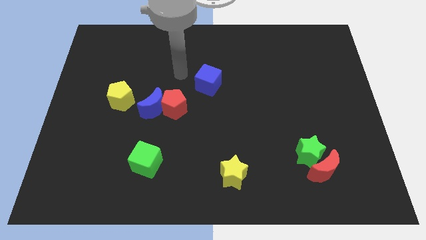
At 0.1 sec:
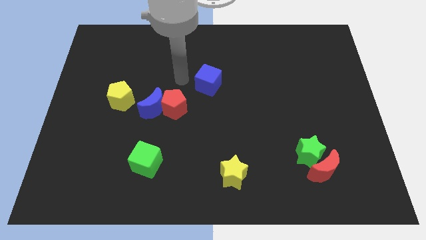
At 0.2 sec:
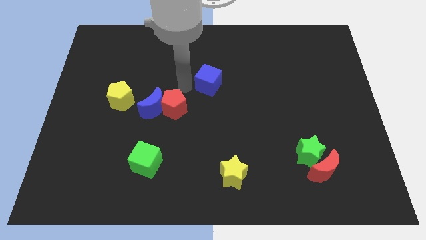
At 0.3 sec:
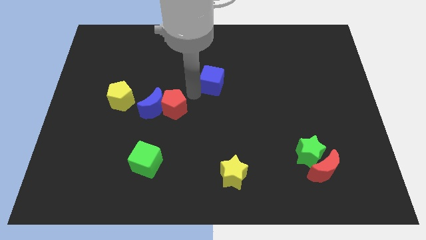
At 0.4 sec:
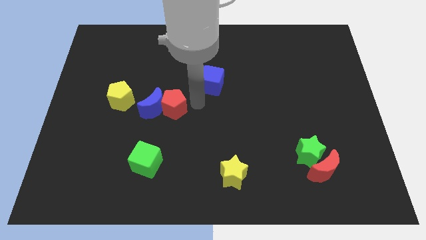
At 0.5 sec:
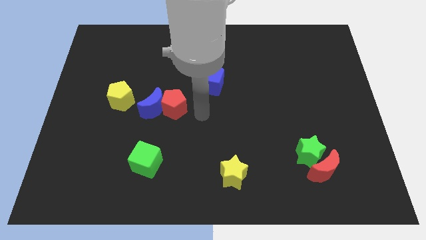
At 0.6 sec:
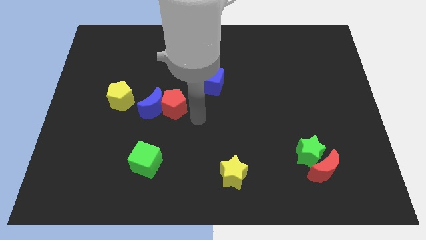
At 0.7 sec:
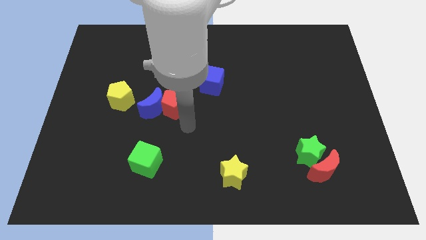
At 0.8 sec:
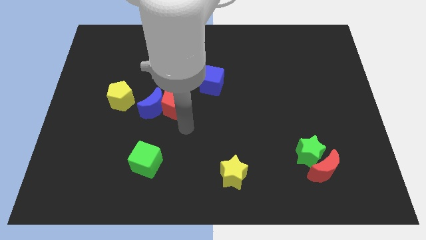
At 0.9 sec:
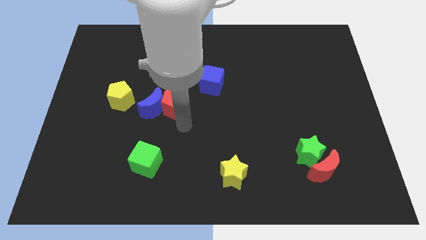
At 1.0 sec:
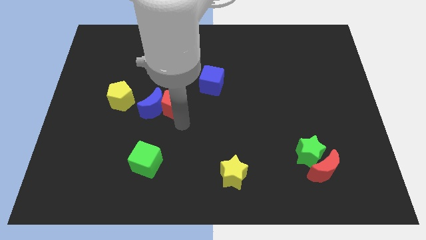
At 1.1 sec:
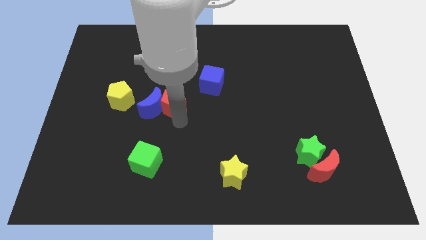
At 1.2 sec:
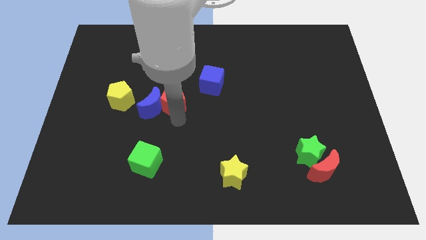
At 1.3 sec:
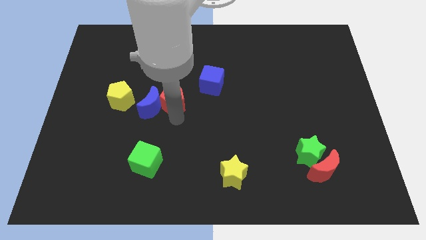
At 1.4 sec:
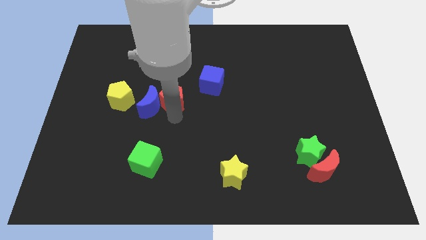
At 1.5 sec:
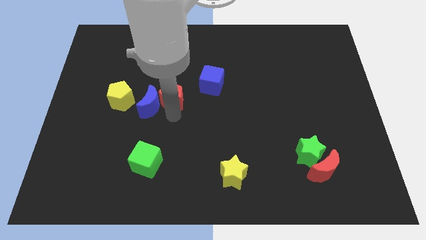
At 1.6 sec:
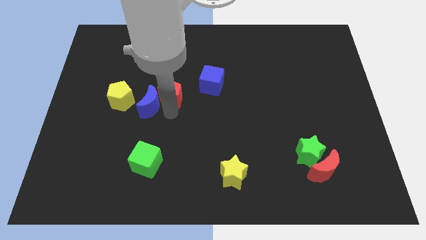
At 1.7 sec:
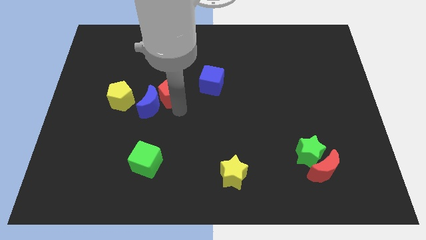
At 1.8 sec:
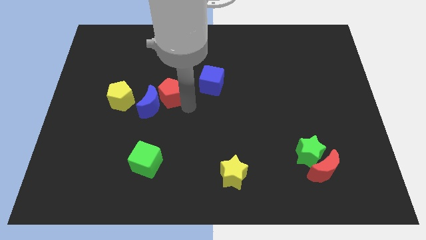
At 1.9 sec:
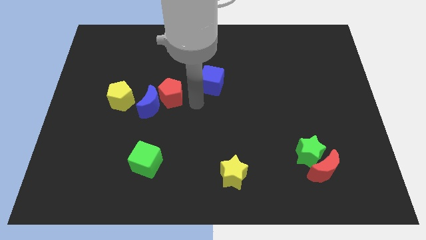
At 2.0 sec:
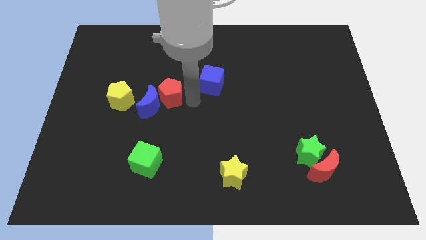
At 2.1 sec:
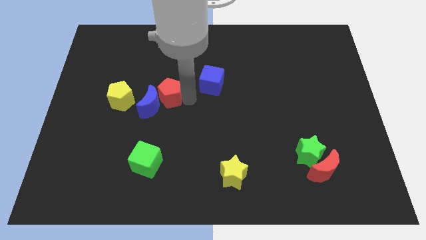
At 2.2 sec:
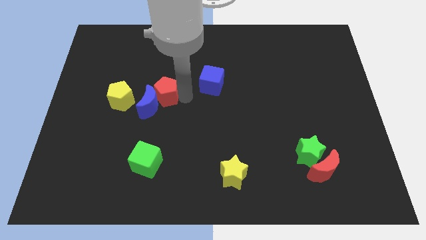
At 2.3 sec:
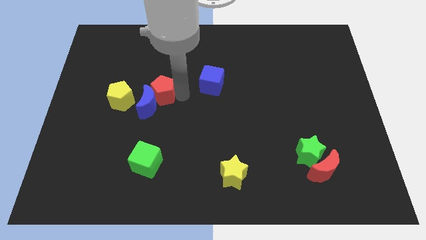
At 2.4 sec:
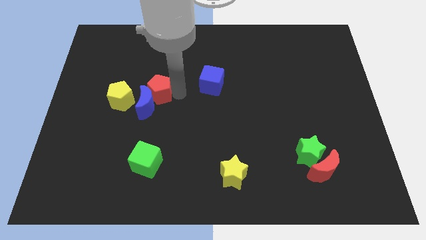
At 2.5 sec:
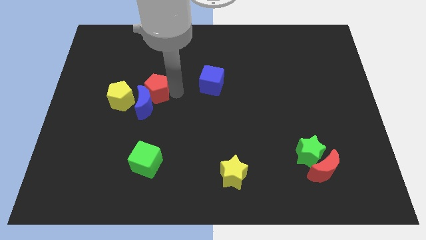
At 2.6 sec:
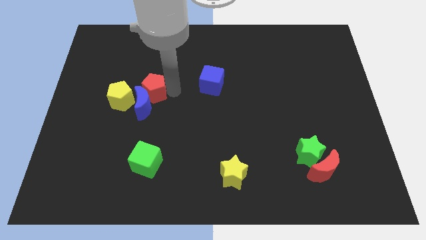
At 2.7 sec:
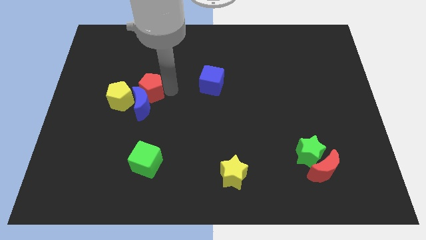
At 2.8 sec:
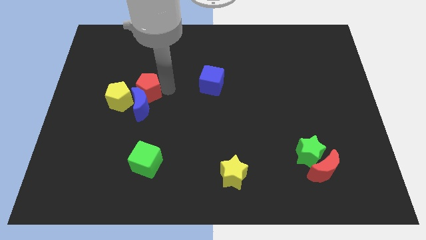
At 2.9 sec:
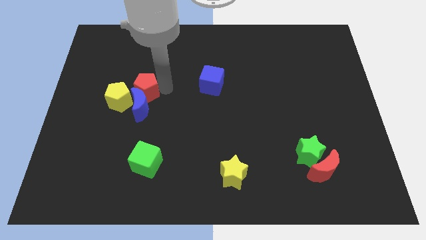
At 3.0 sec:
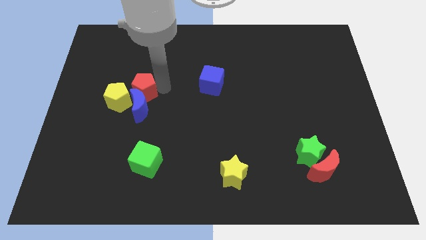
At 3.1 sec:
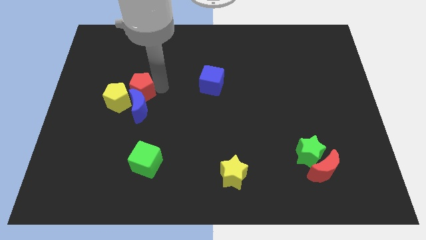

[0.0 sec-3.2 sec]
push the red pentagon to the left somewhat

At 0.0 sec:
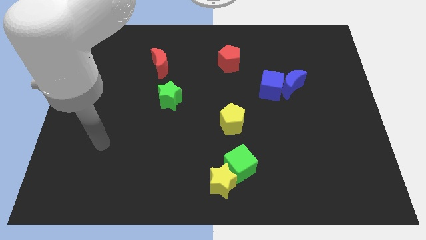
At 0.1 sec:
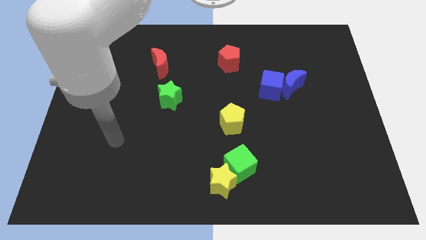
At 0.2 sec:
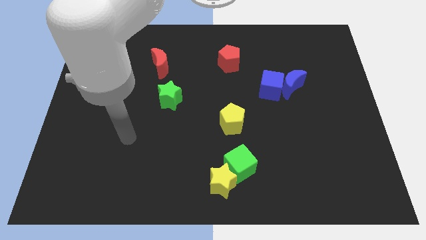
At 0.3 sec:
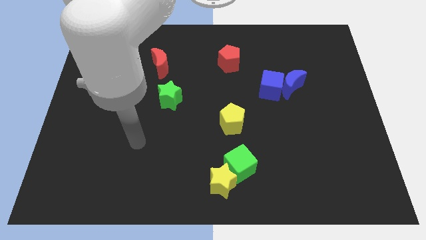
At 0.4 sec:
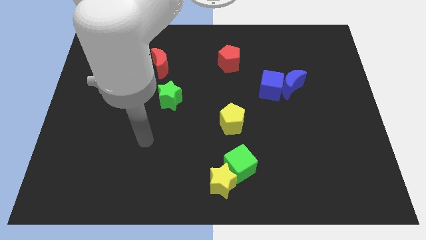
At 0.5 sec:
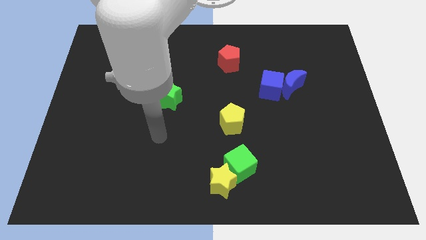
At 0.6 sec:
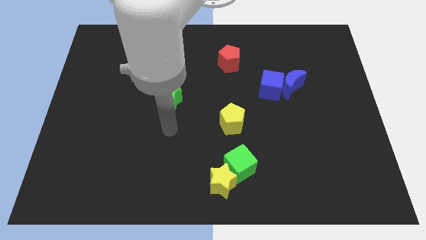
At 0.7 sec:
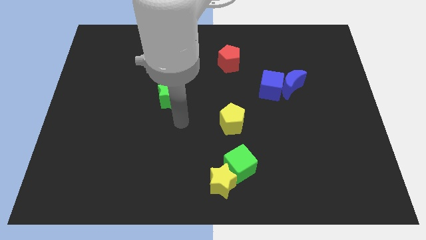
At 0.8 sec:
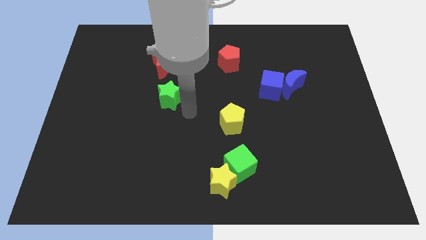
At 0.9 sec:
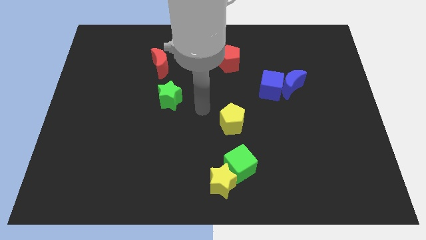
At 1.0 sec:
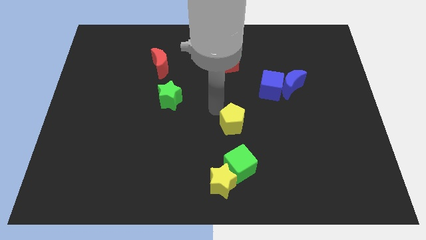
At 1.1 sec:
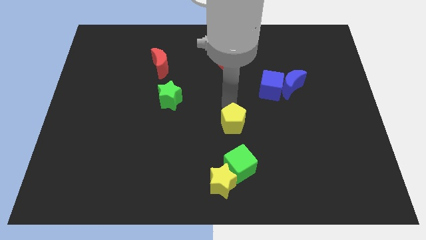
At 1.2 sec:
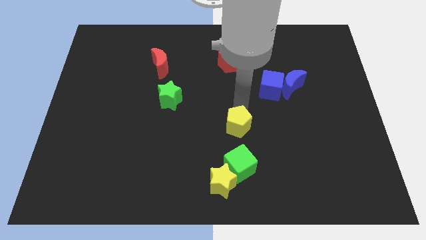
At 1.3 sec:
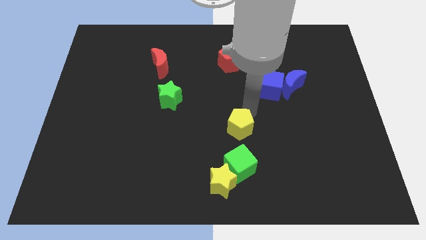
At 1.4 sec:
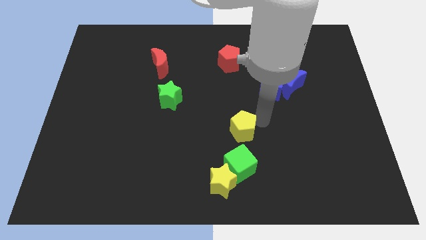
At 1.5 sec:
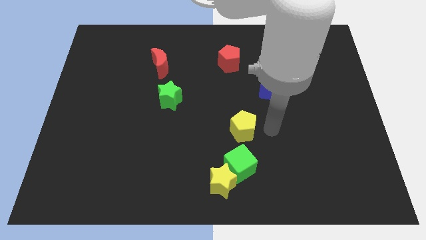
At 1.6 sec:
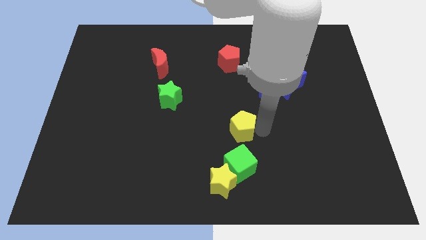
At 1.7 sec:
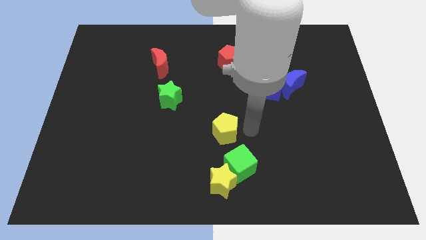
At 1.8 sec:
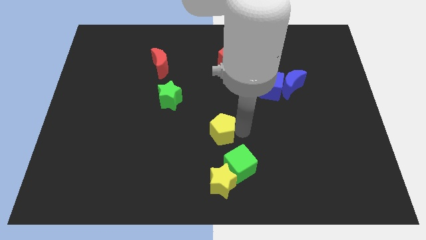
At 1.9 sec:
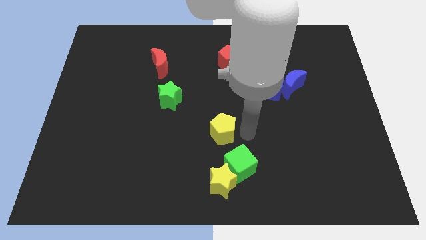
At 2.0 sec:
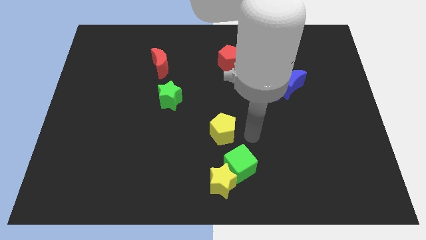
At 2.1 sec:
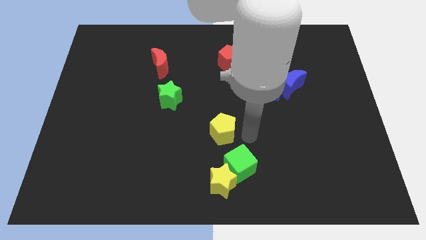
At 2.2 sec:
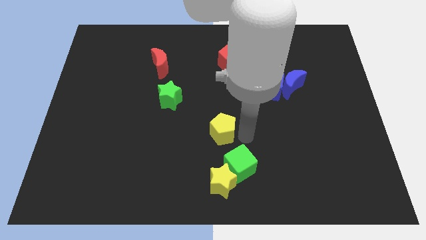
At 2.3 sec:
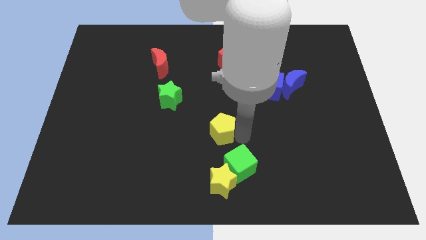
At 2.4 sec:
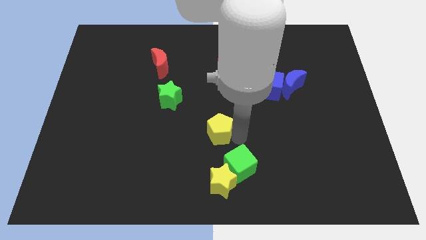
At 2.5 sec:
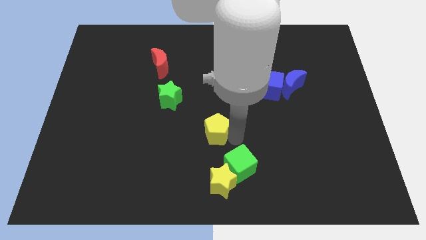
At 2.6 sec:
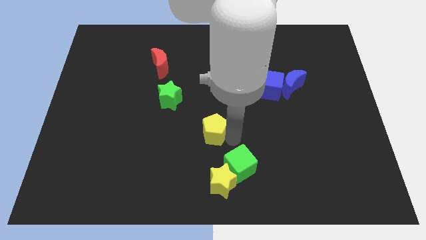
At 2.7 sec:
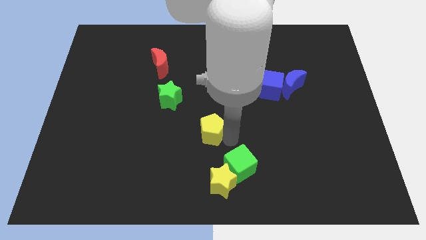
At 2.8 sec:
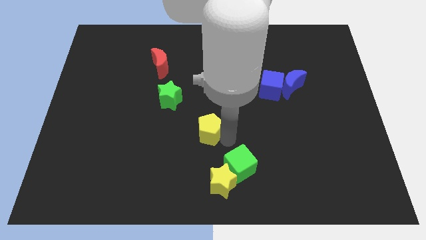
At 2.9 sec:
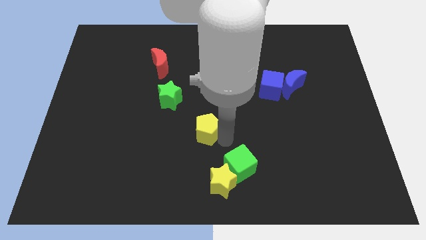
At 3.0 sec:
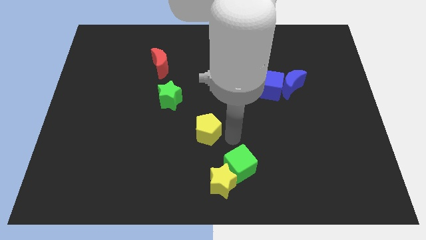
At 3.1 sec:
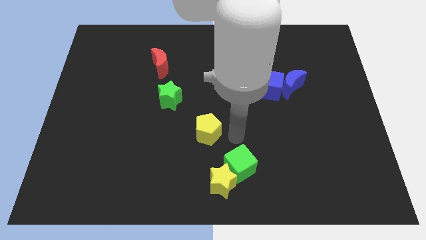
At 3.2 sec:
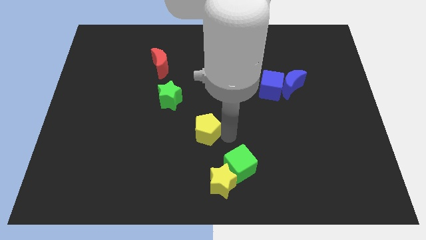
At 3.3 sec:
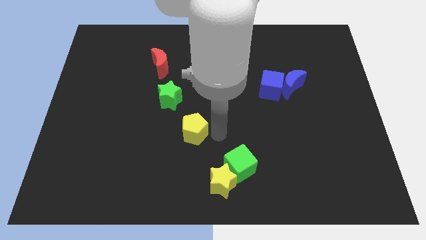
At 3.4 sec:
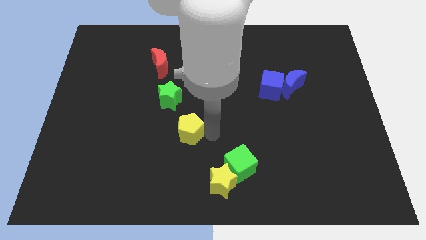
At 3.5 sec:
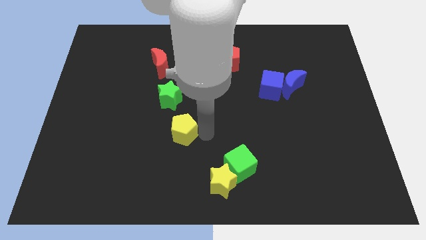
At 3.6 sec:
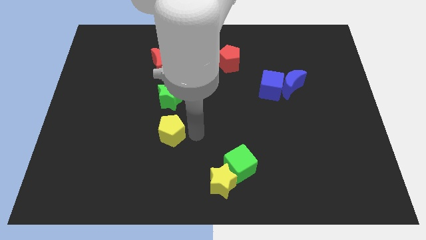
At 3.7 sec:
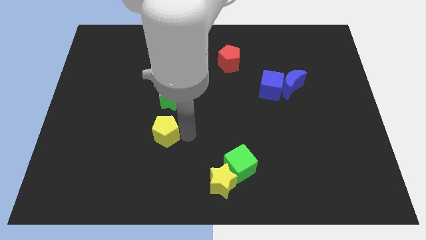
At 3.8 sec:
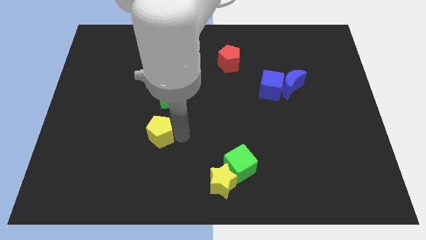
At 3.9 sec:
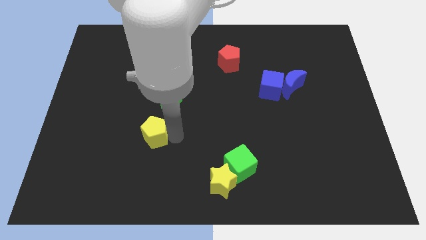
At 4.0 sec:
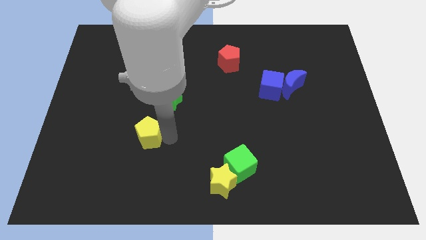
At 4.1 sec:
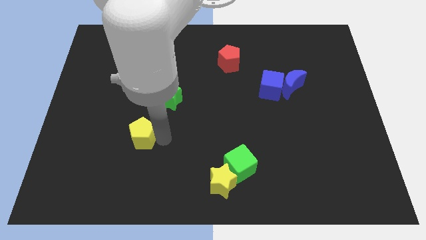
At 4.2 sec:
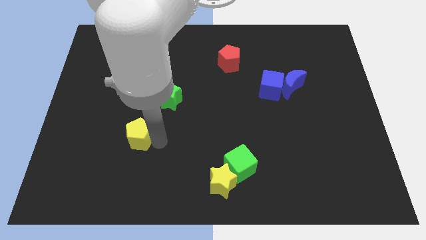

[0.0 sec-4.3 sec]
push the yellow pentagon to the left

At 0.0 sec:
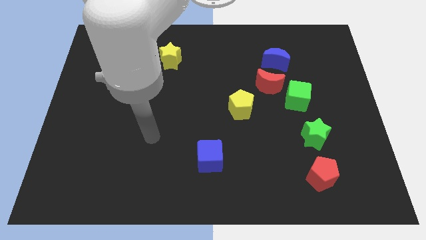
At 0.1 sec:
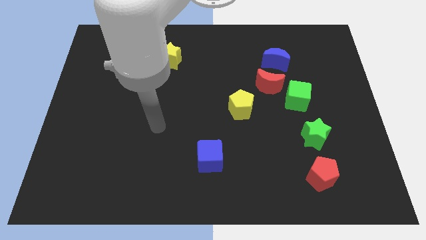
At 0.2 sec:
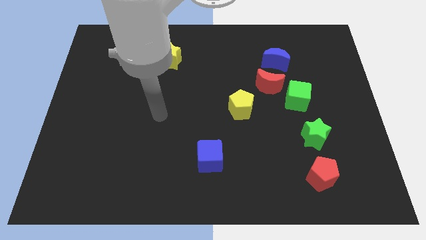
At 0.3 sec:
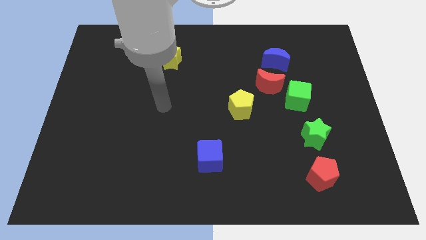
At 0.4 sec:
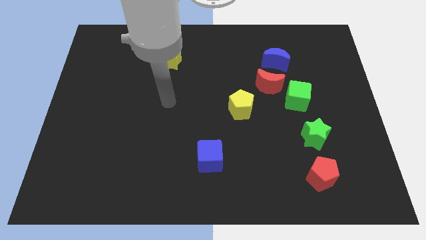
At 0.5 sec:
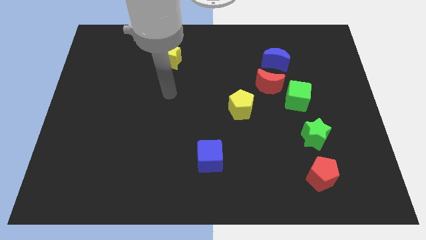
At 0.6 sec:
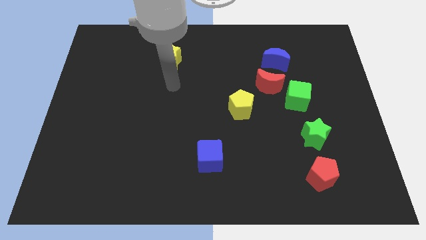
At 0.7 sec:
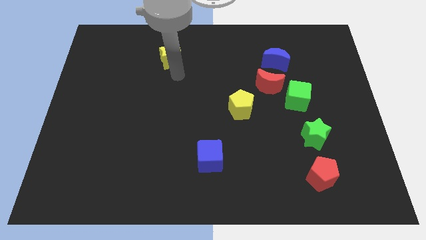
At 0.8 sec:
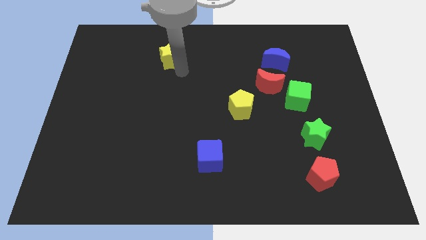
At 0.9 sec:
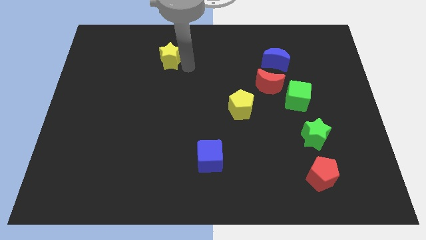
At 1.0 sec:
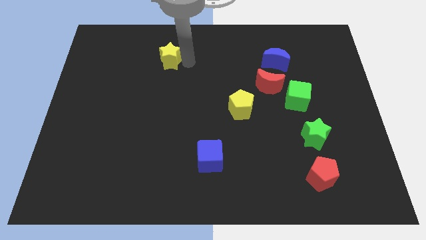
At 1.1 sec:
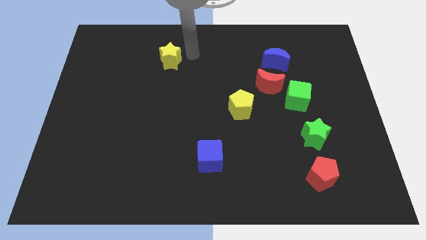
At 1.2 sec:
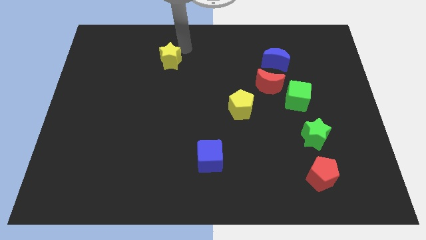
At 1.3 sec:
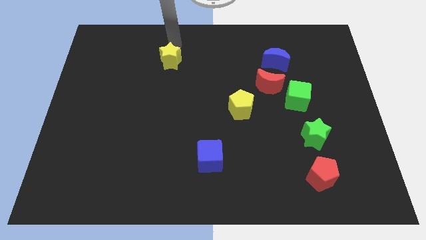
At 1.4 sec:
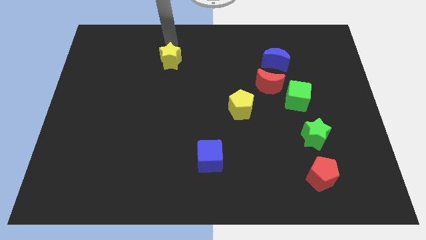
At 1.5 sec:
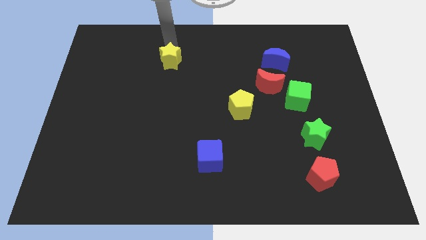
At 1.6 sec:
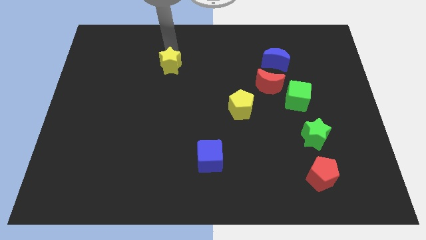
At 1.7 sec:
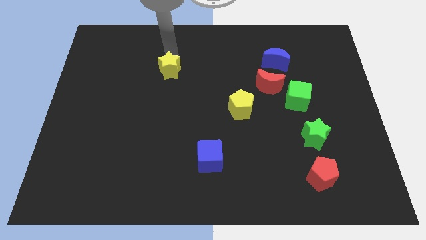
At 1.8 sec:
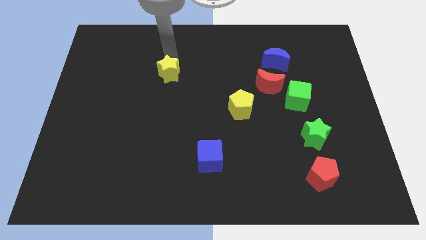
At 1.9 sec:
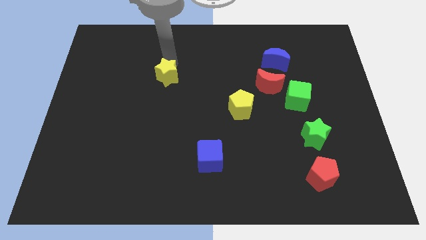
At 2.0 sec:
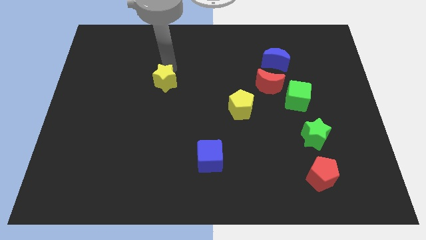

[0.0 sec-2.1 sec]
slightly push the yellow star down
